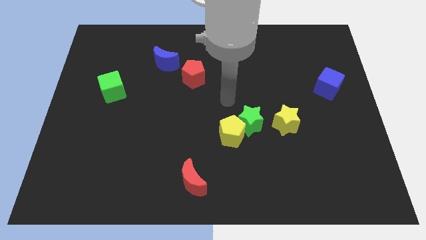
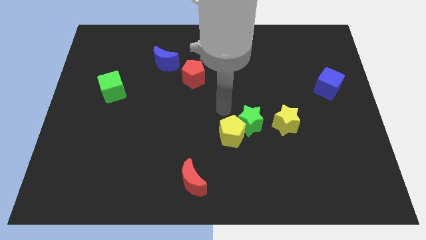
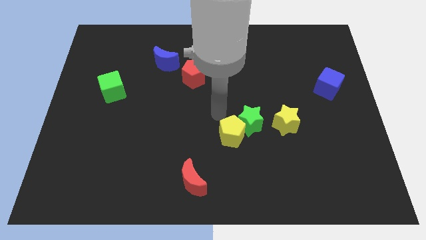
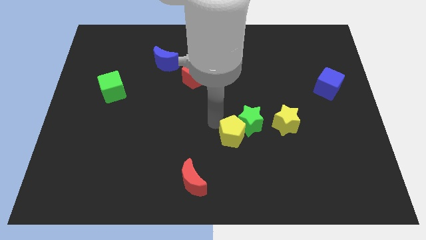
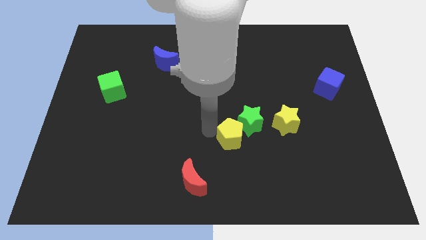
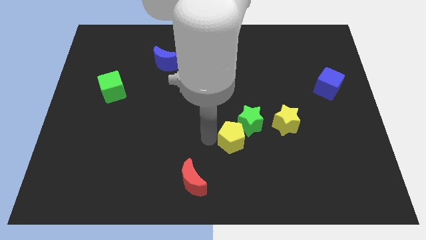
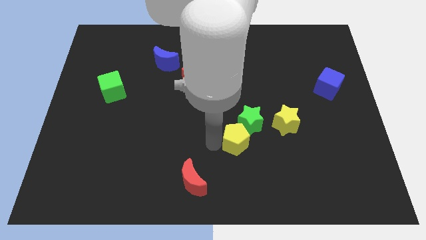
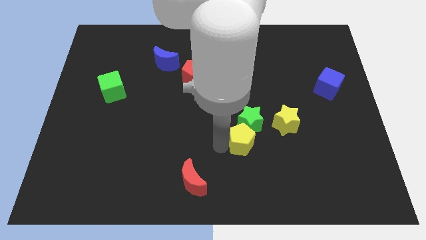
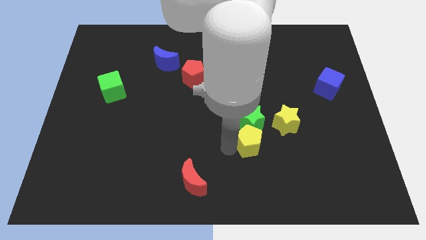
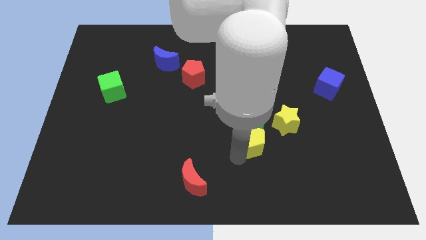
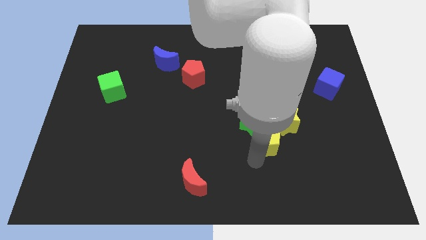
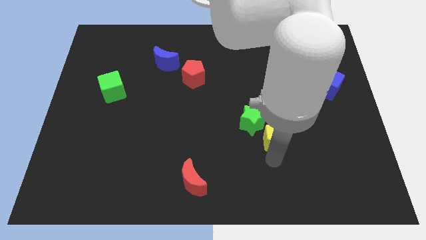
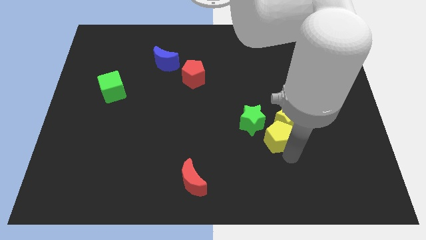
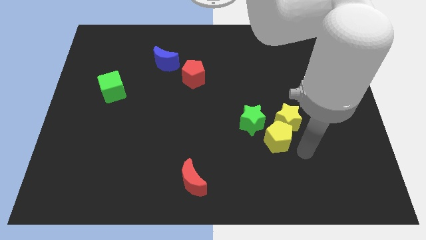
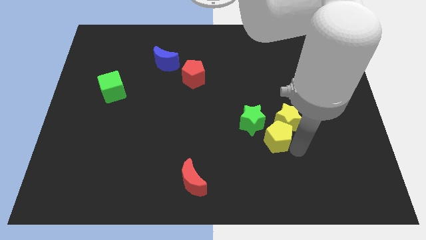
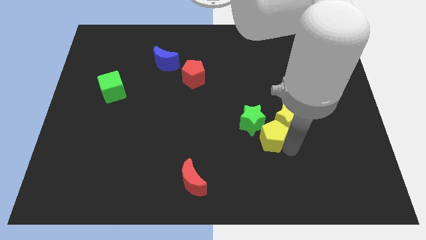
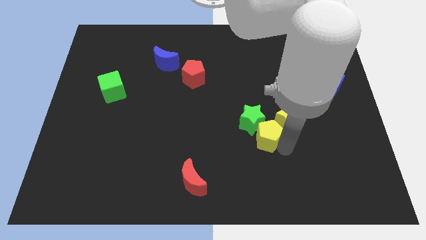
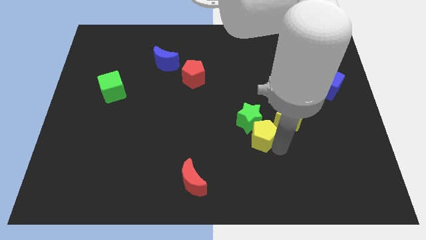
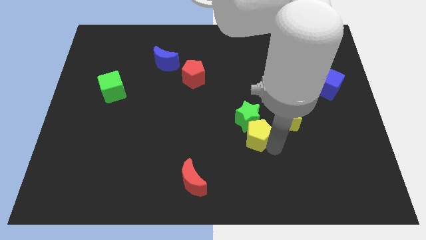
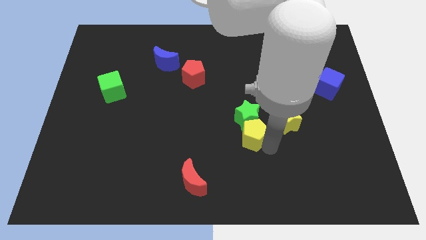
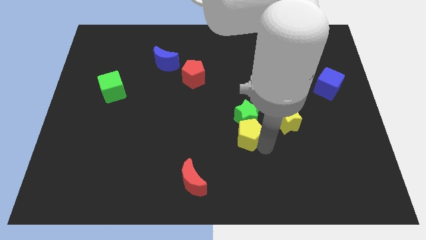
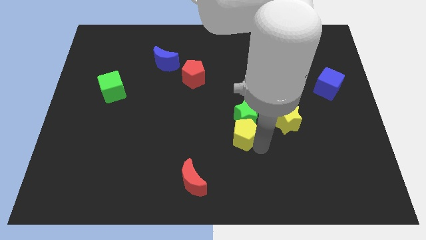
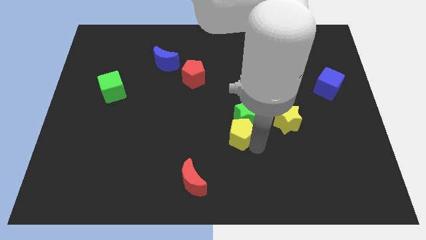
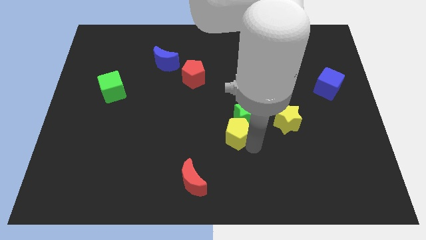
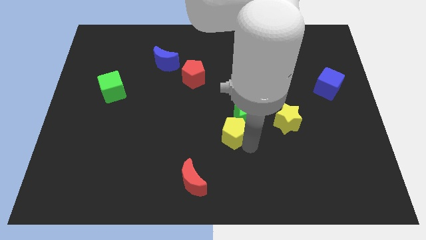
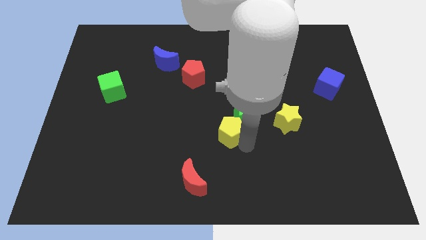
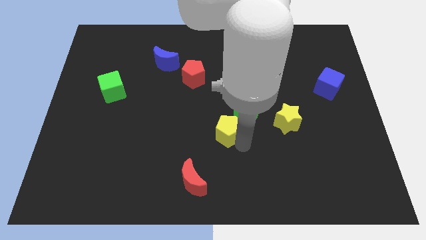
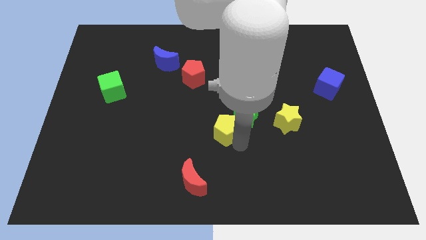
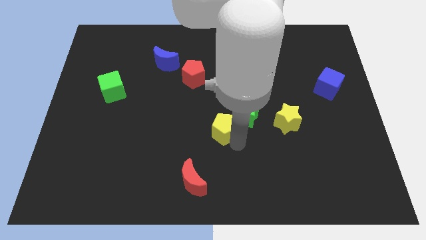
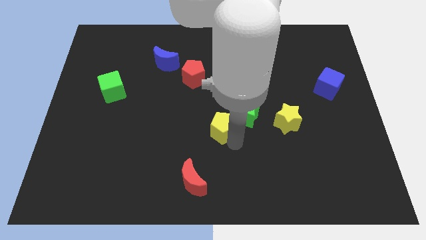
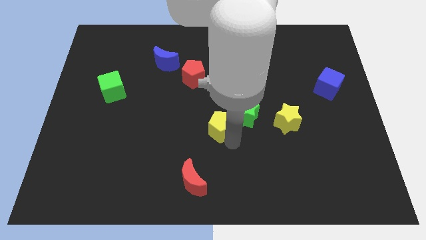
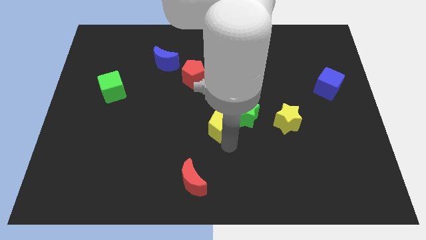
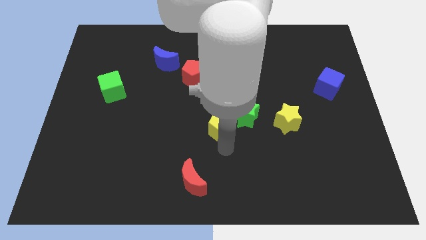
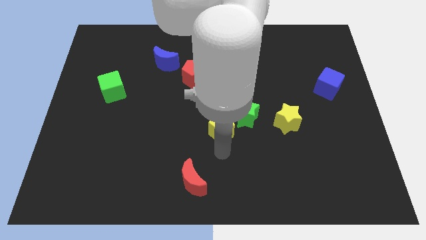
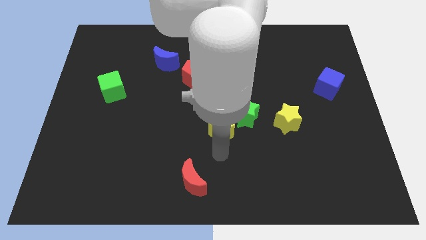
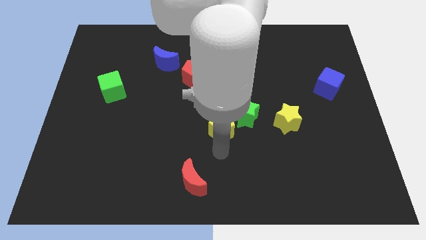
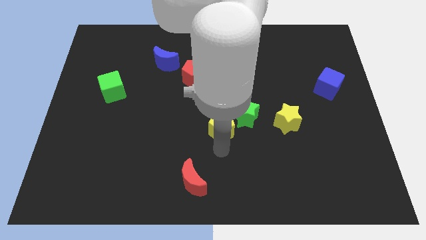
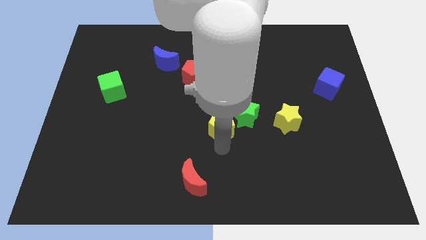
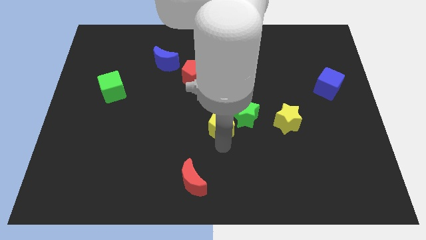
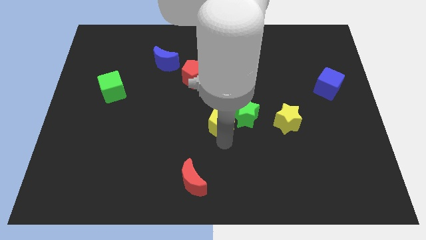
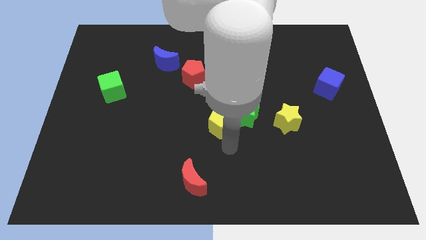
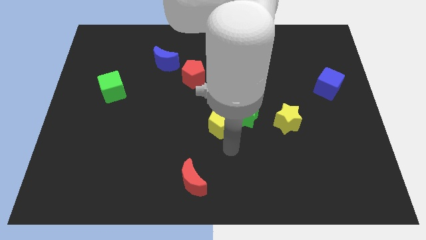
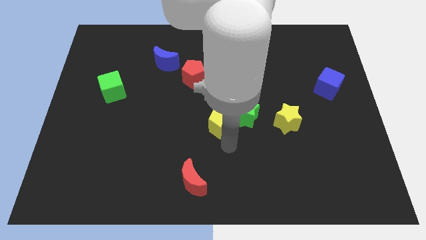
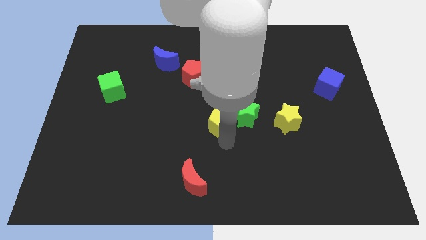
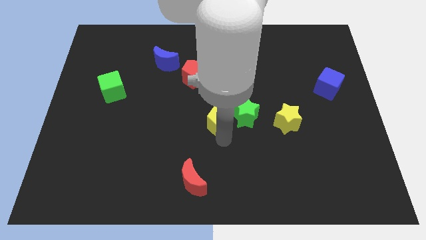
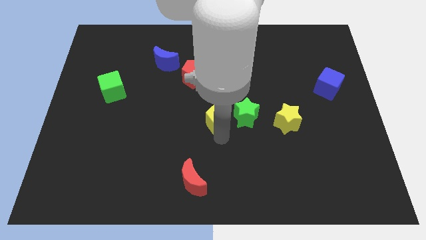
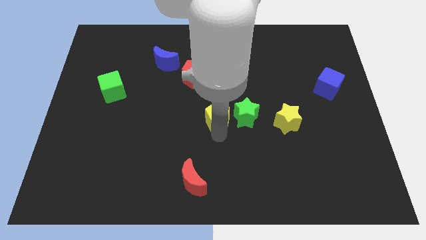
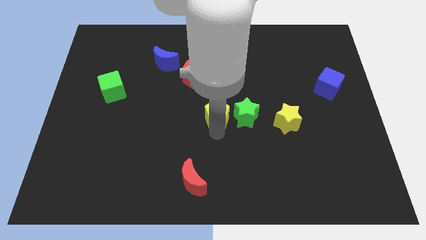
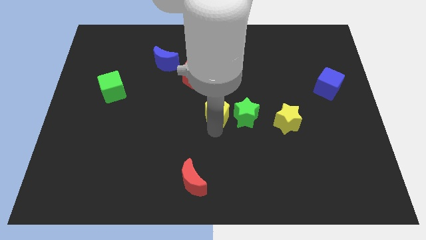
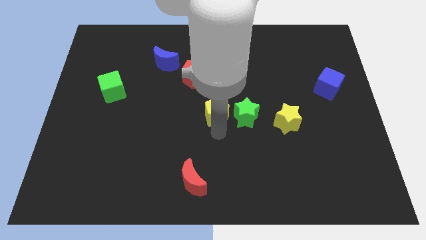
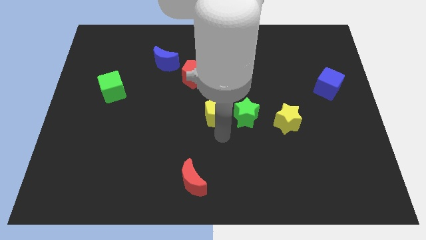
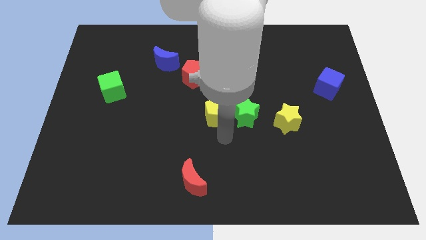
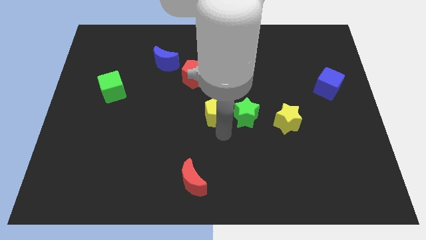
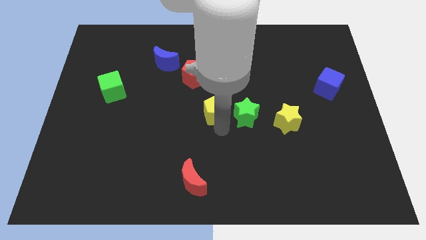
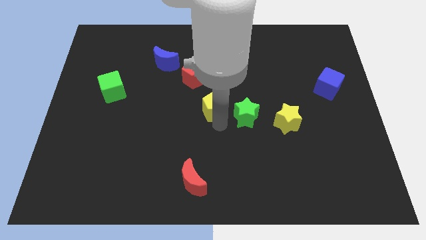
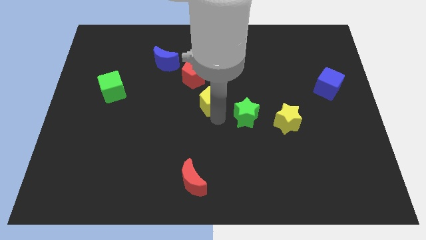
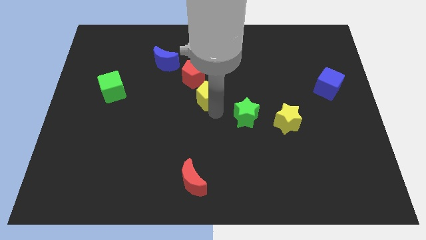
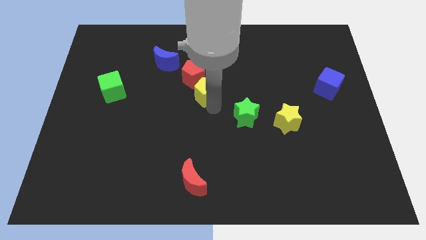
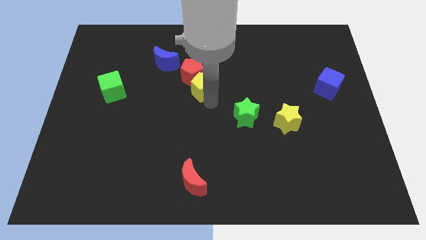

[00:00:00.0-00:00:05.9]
push the yellow pentagon next to the red pentagon

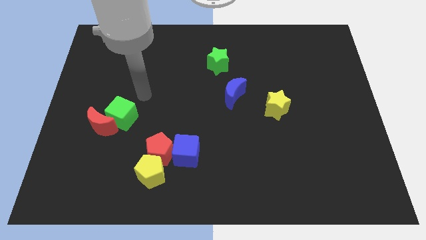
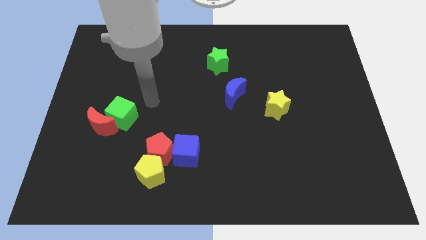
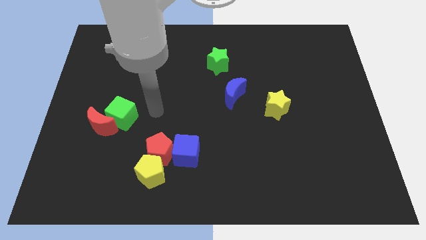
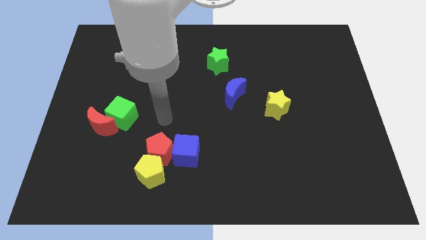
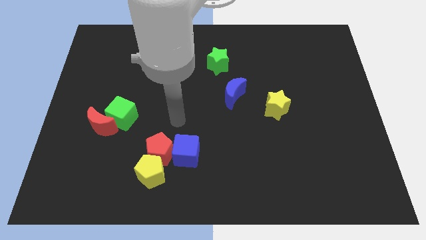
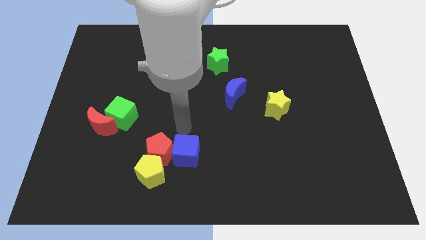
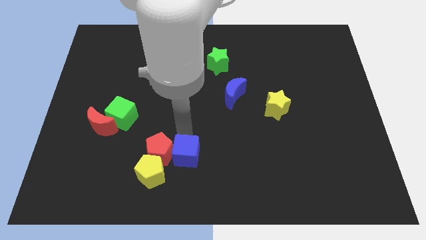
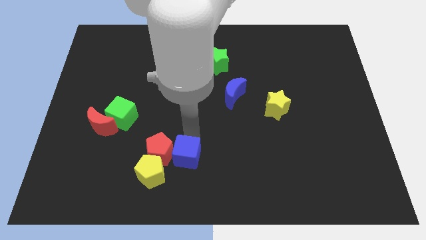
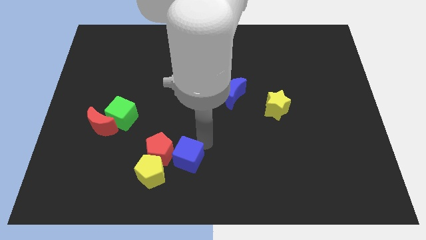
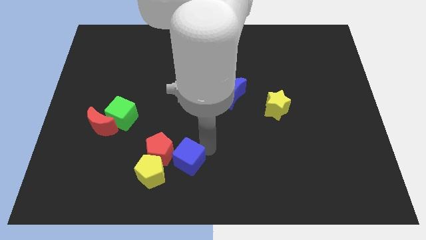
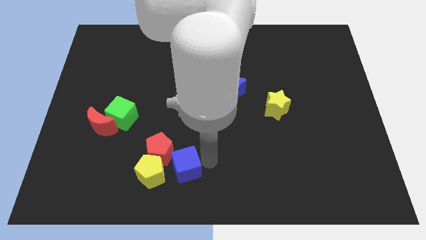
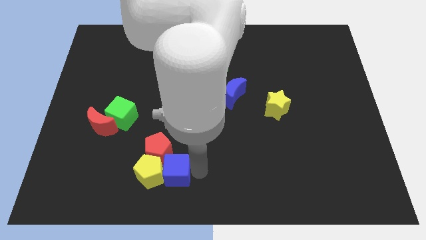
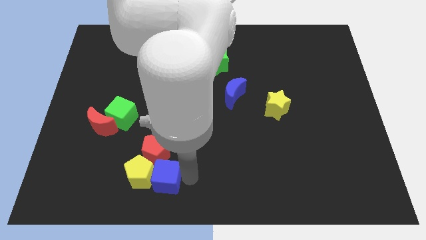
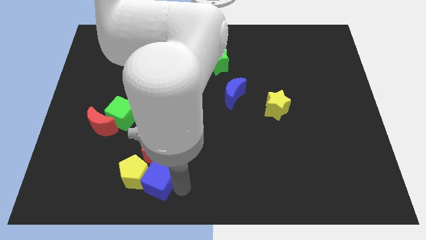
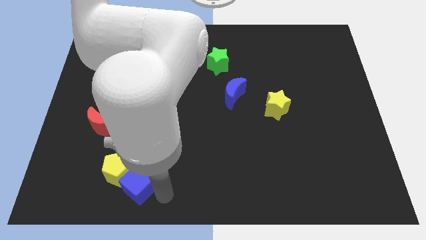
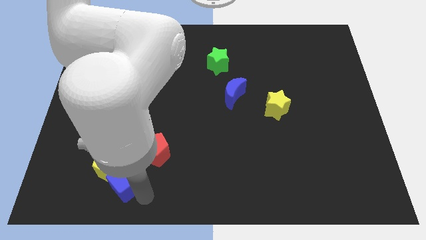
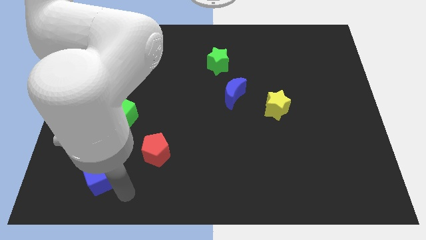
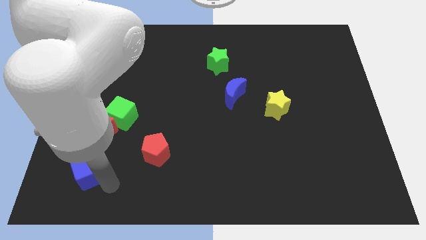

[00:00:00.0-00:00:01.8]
slide the yellow pentagon close to the red moon
